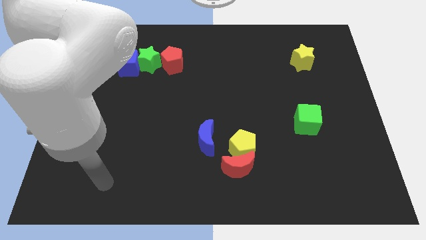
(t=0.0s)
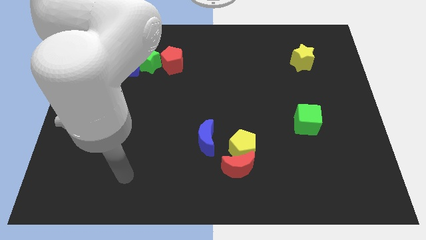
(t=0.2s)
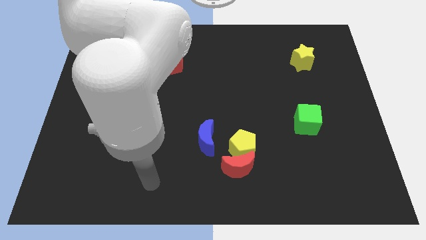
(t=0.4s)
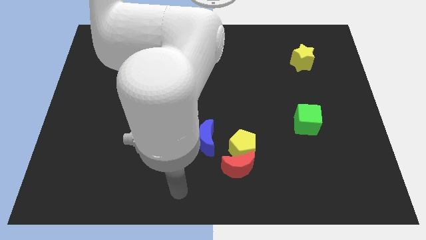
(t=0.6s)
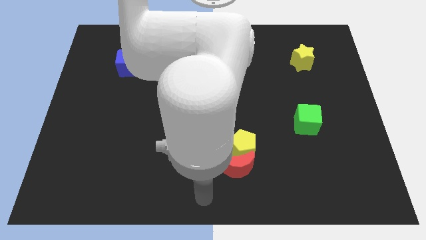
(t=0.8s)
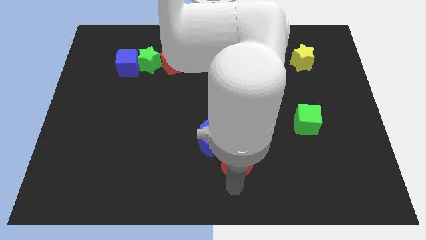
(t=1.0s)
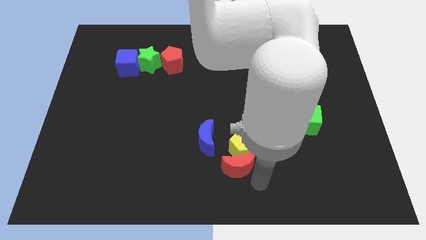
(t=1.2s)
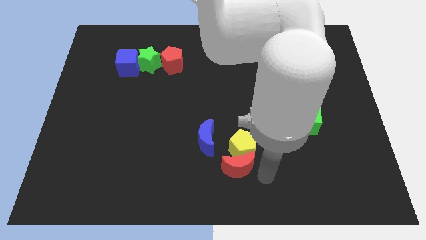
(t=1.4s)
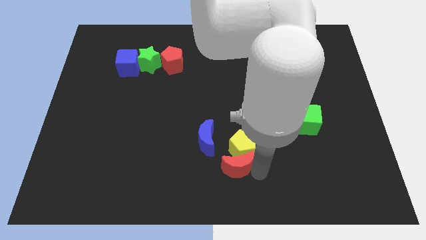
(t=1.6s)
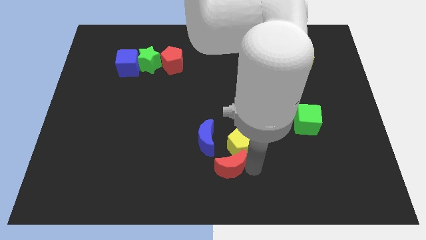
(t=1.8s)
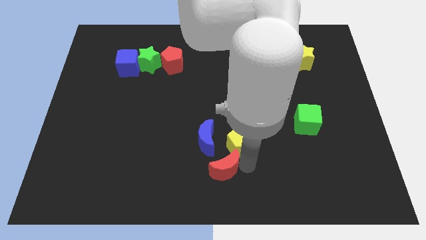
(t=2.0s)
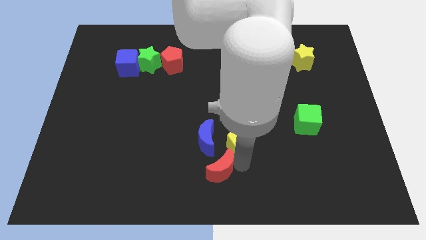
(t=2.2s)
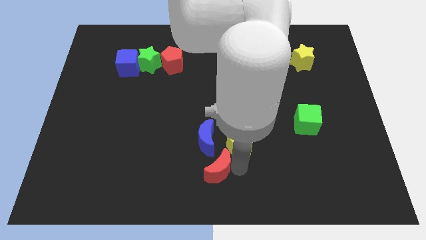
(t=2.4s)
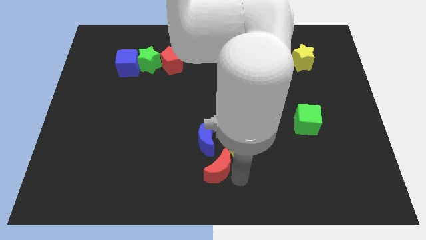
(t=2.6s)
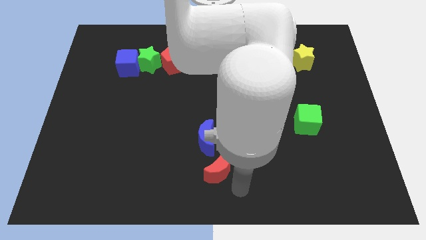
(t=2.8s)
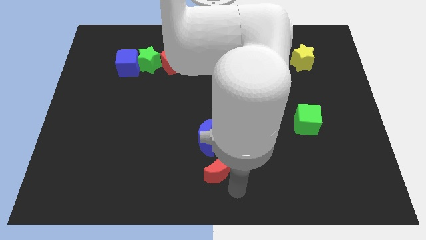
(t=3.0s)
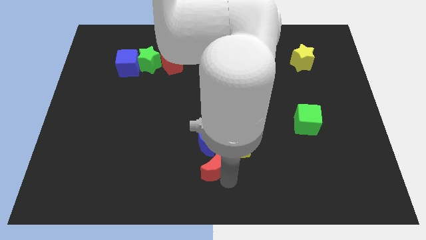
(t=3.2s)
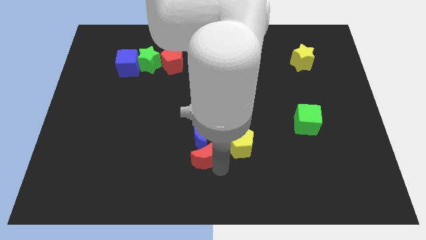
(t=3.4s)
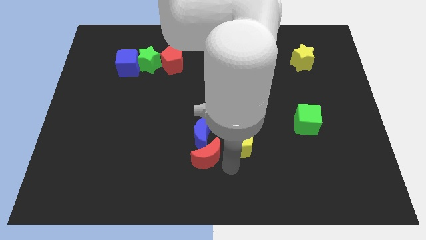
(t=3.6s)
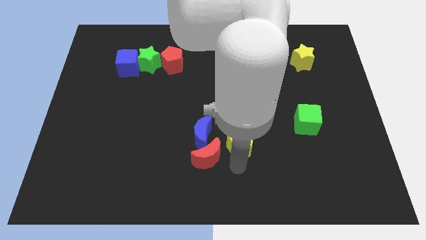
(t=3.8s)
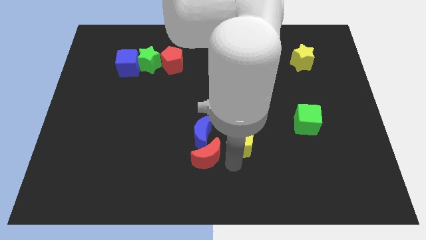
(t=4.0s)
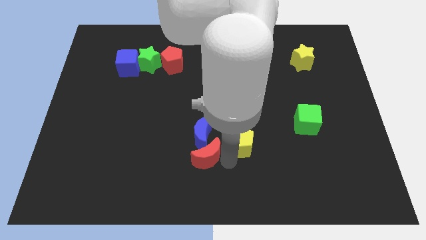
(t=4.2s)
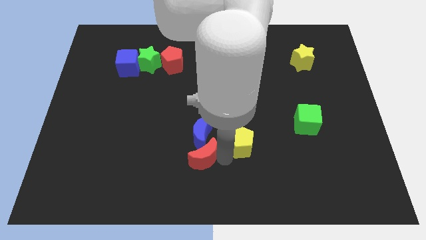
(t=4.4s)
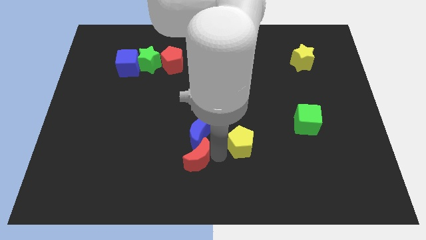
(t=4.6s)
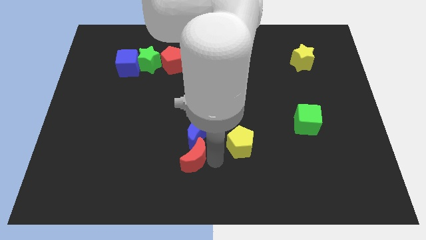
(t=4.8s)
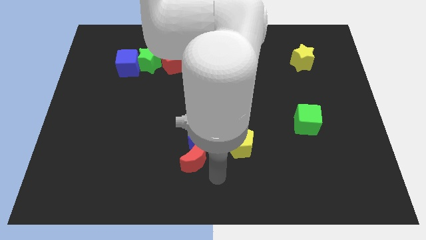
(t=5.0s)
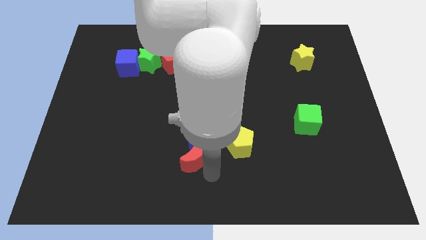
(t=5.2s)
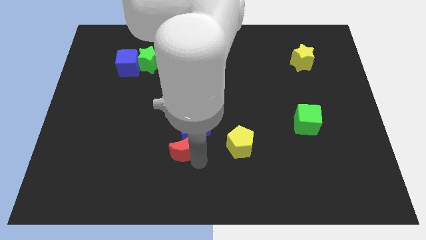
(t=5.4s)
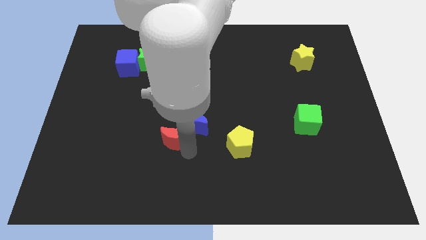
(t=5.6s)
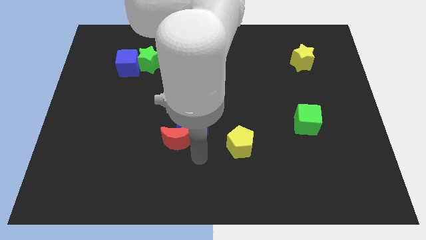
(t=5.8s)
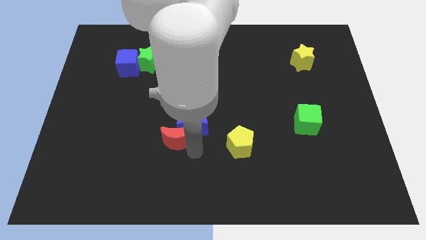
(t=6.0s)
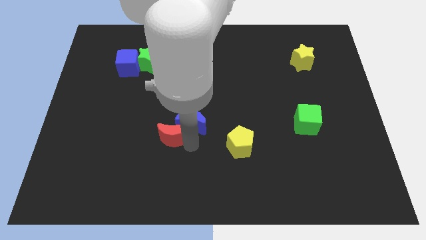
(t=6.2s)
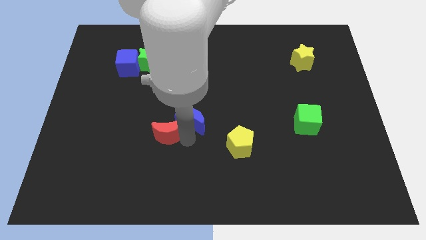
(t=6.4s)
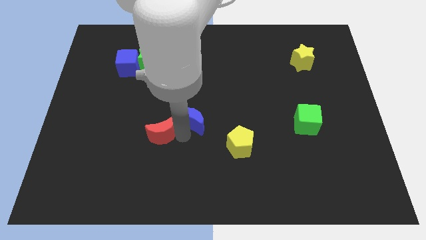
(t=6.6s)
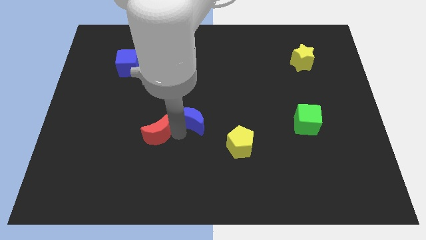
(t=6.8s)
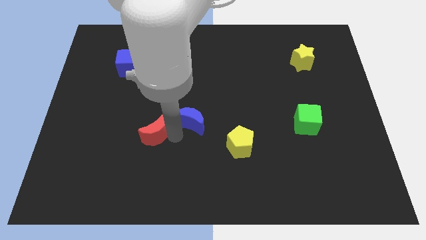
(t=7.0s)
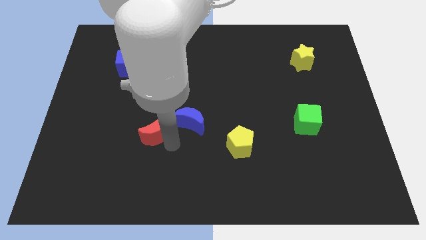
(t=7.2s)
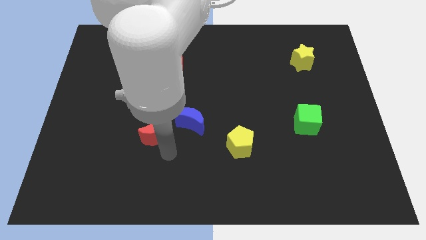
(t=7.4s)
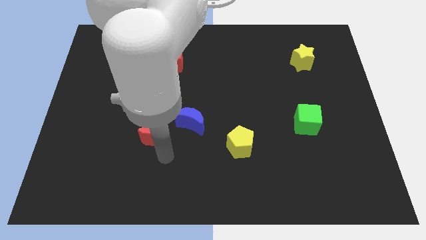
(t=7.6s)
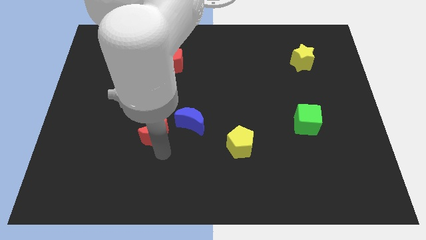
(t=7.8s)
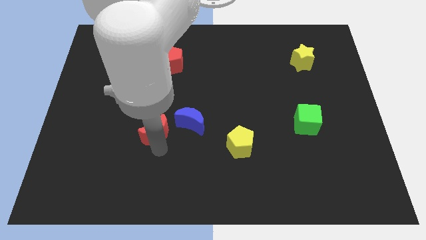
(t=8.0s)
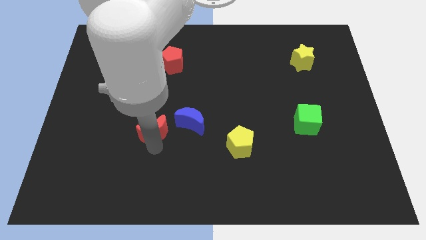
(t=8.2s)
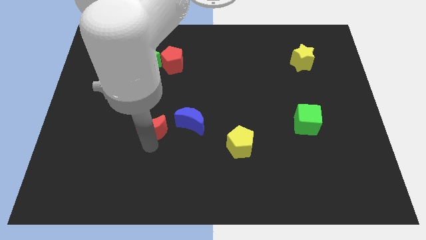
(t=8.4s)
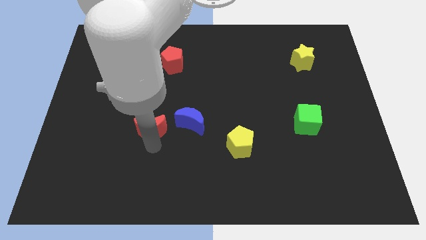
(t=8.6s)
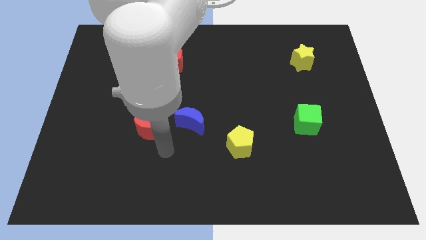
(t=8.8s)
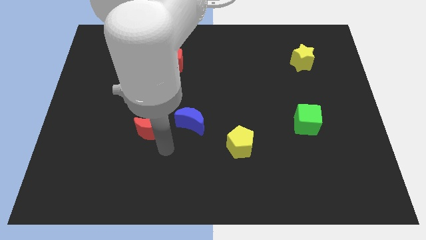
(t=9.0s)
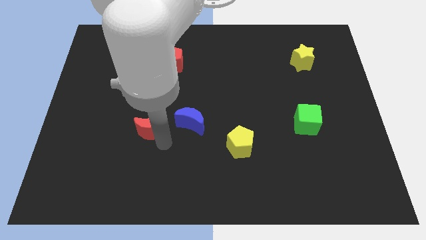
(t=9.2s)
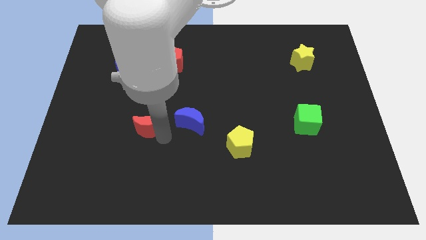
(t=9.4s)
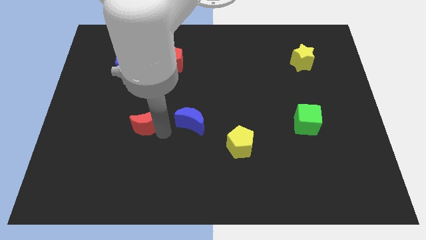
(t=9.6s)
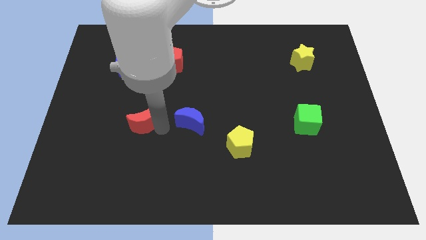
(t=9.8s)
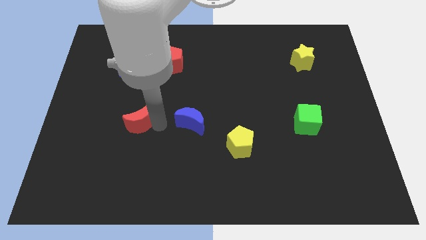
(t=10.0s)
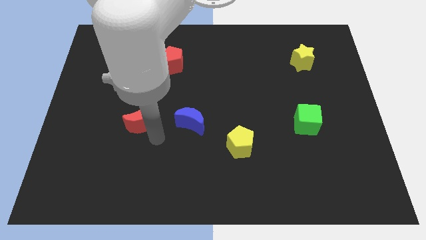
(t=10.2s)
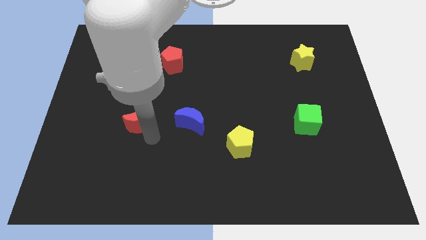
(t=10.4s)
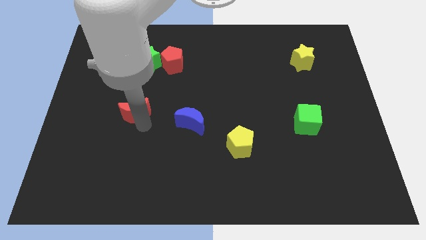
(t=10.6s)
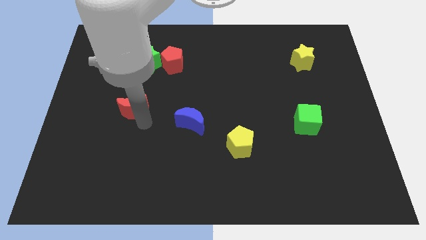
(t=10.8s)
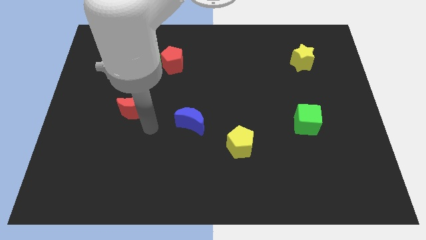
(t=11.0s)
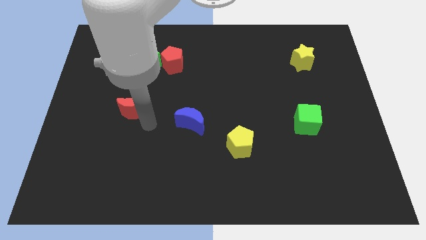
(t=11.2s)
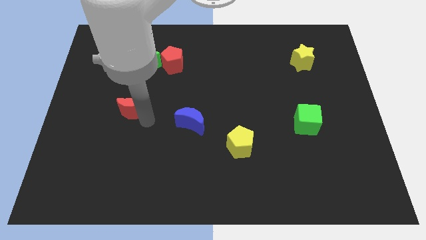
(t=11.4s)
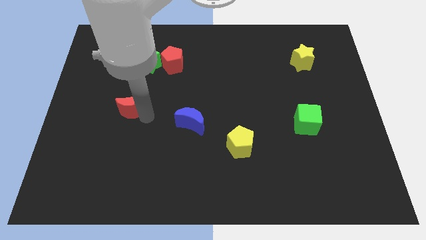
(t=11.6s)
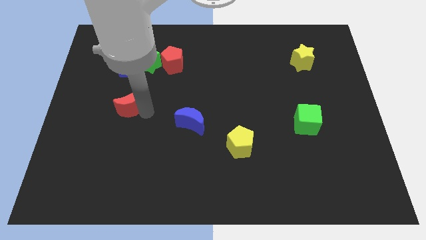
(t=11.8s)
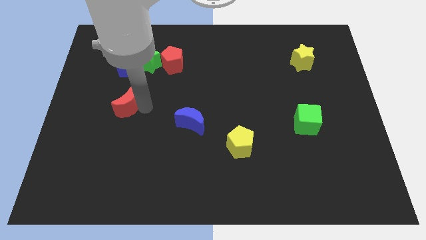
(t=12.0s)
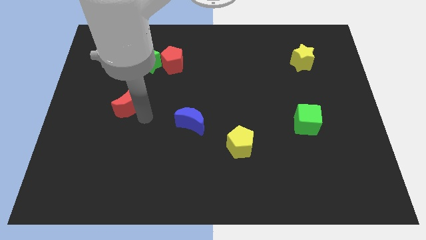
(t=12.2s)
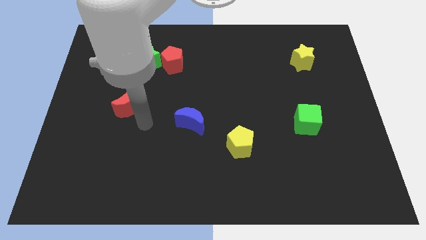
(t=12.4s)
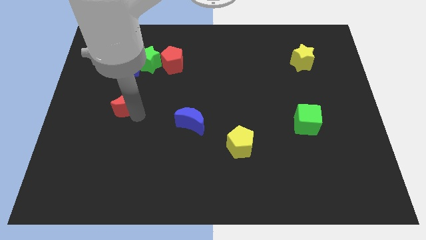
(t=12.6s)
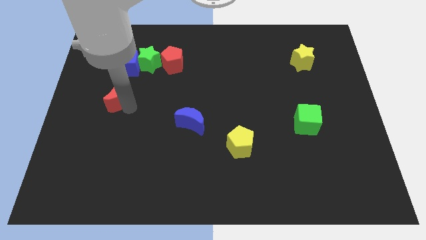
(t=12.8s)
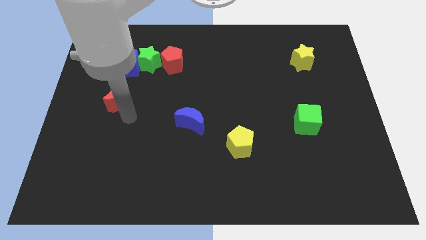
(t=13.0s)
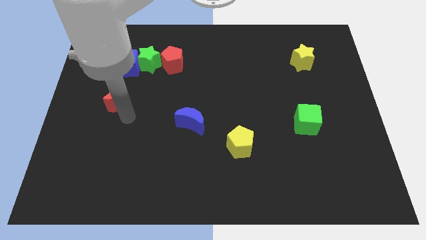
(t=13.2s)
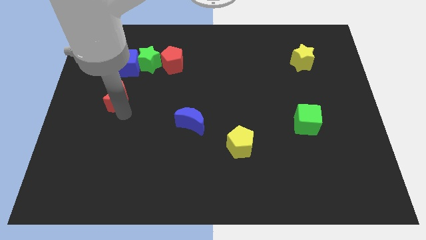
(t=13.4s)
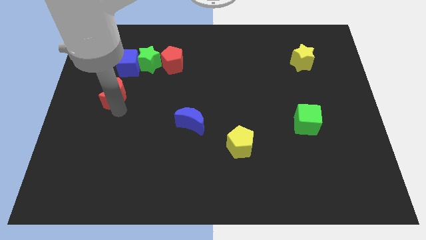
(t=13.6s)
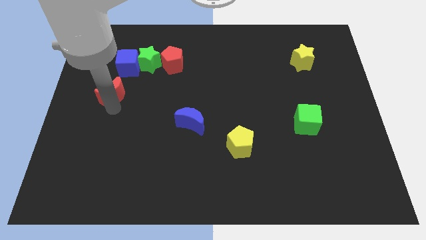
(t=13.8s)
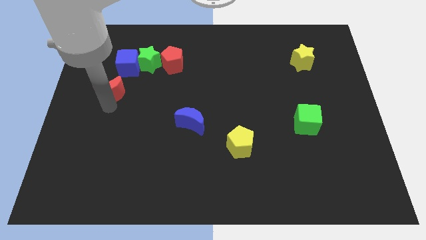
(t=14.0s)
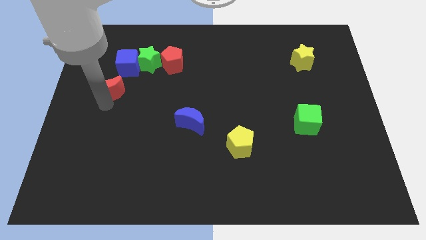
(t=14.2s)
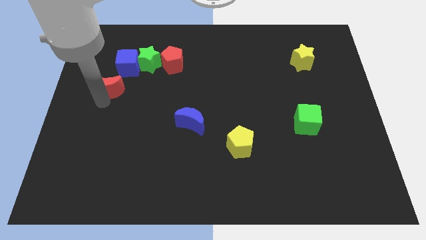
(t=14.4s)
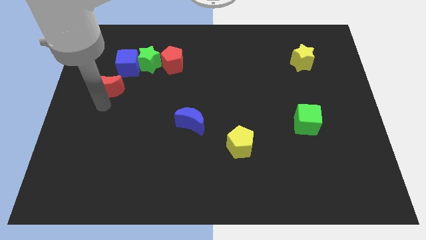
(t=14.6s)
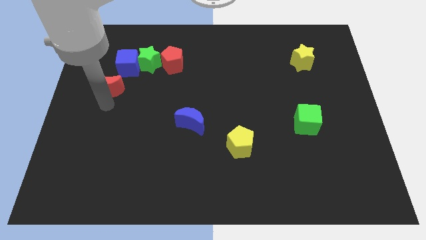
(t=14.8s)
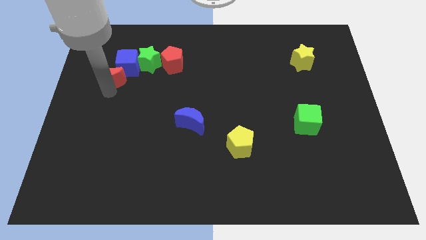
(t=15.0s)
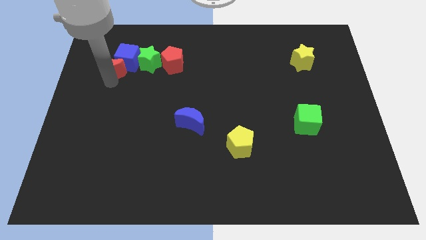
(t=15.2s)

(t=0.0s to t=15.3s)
push the red moon to the left of the red pentagon

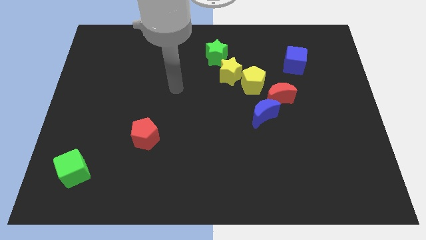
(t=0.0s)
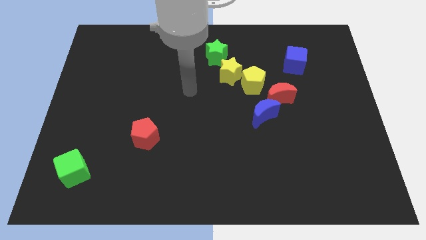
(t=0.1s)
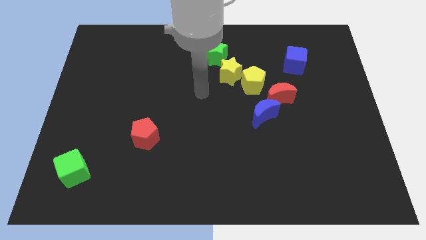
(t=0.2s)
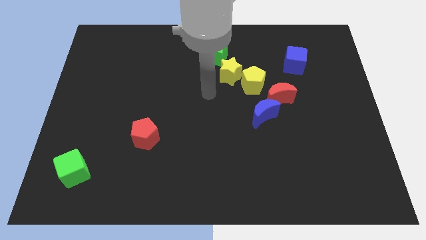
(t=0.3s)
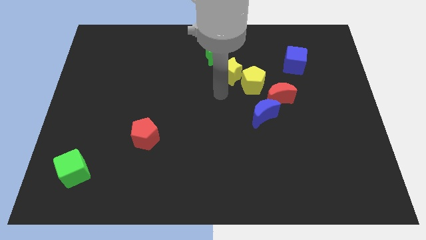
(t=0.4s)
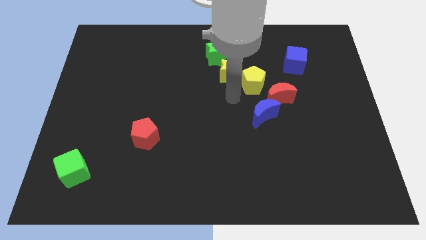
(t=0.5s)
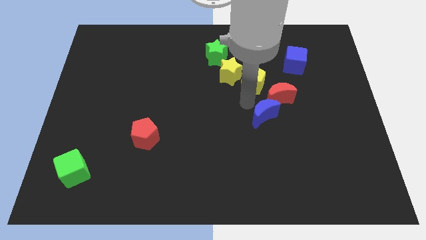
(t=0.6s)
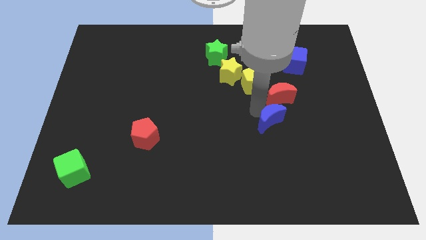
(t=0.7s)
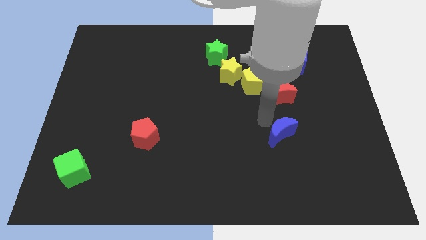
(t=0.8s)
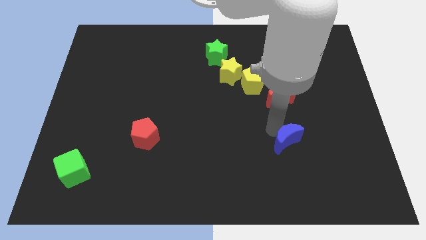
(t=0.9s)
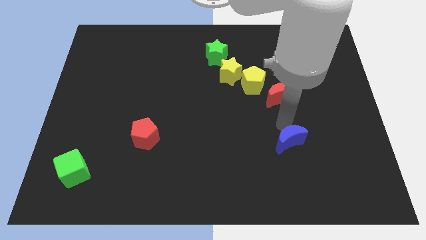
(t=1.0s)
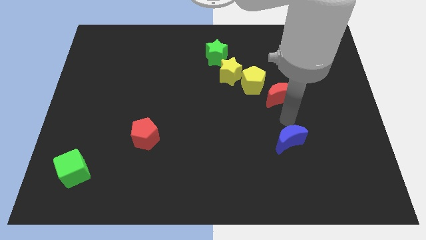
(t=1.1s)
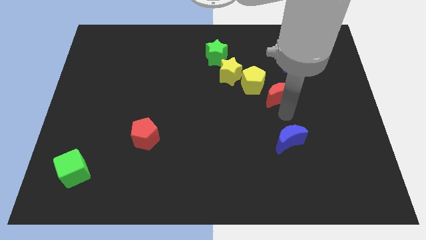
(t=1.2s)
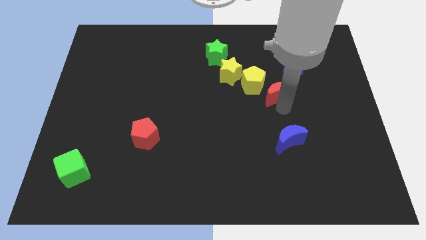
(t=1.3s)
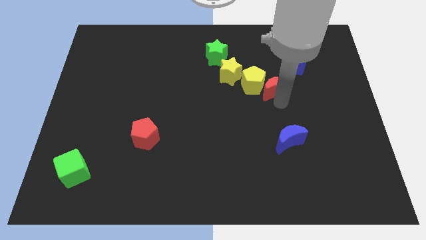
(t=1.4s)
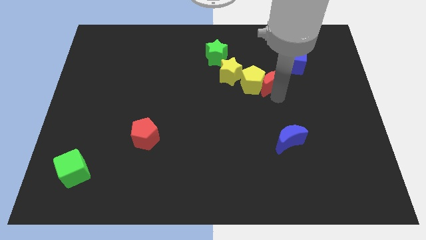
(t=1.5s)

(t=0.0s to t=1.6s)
push the red moon right of the yellow star
